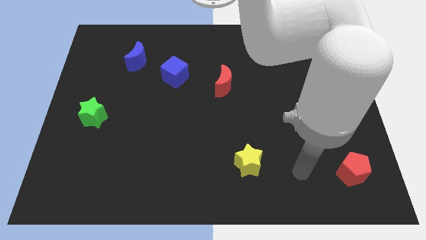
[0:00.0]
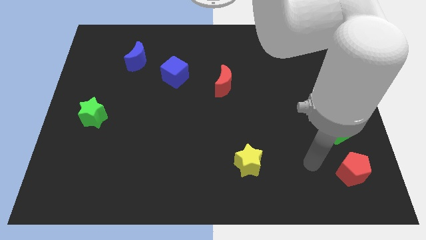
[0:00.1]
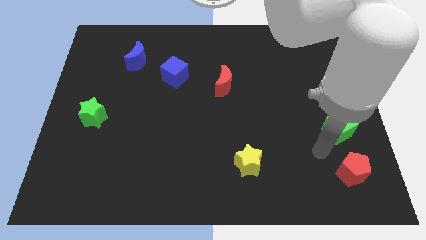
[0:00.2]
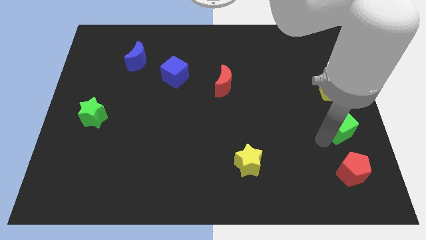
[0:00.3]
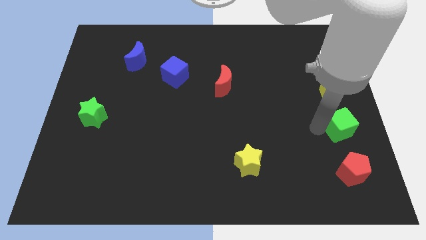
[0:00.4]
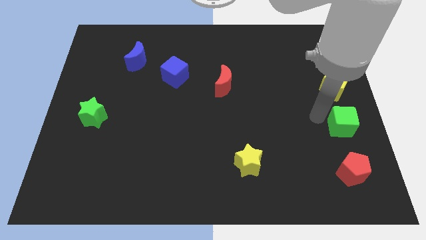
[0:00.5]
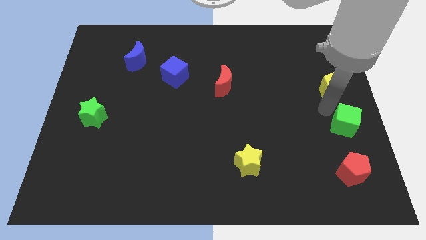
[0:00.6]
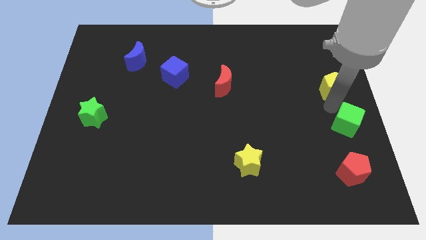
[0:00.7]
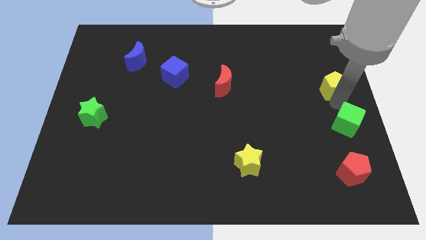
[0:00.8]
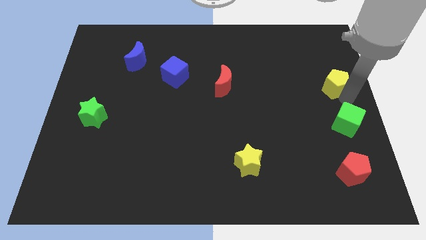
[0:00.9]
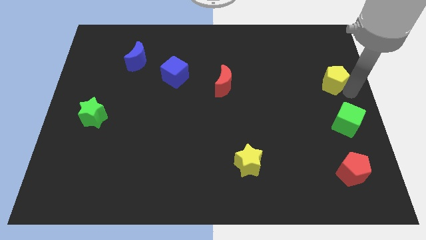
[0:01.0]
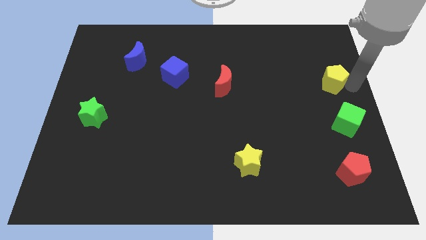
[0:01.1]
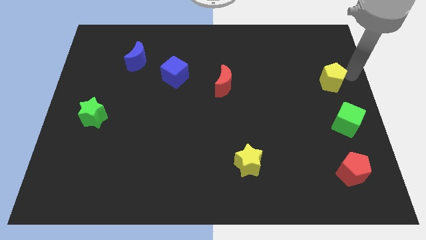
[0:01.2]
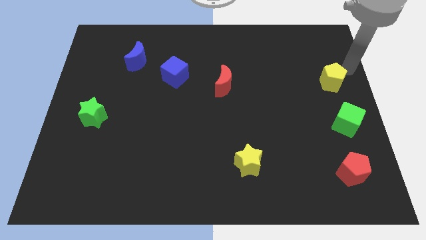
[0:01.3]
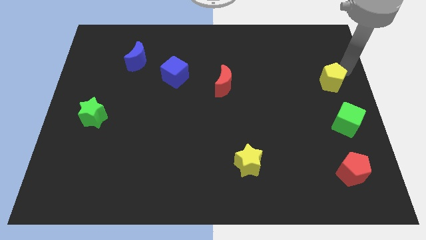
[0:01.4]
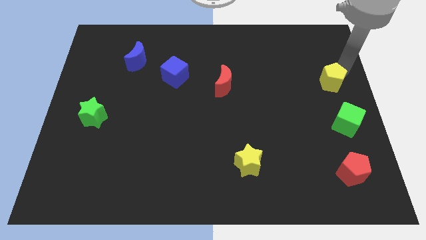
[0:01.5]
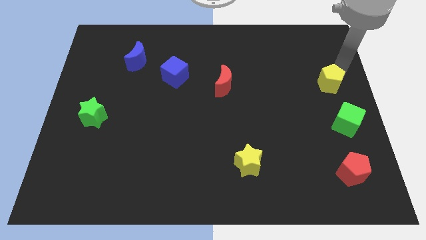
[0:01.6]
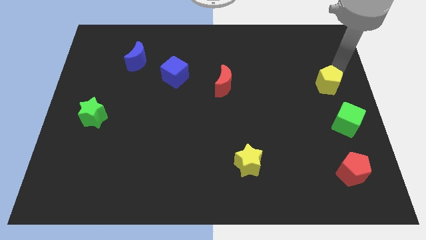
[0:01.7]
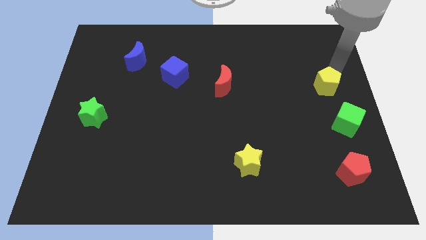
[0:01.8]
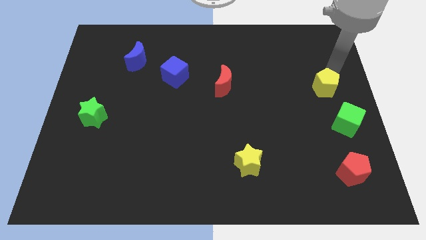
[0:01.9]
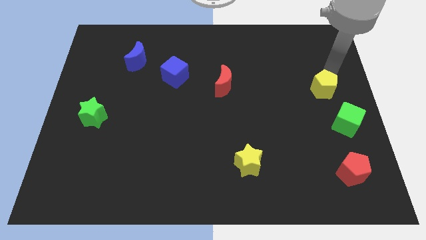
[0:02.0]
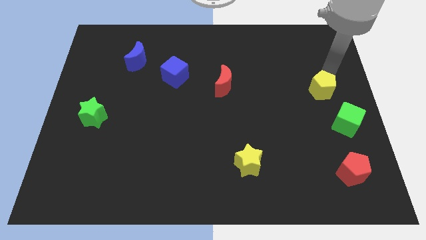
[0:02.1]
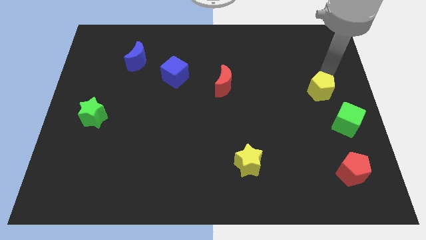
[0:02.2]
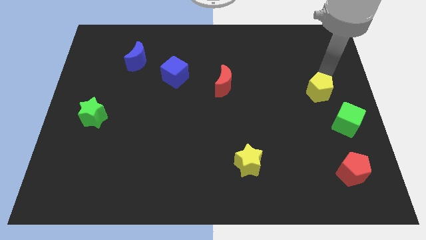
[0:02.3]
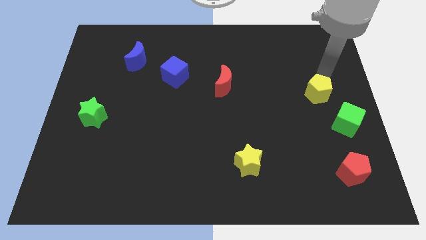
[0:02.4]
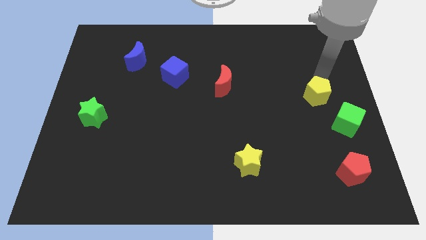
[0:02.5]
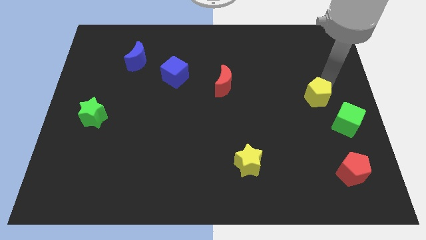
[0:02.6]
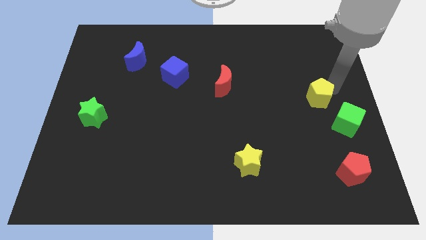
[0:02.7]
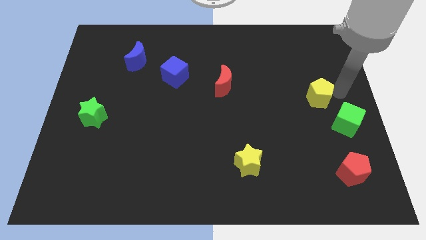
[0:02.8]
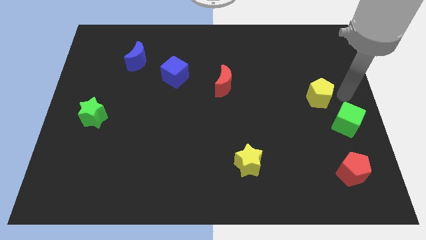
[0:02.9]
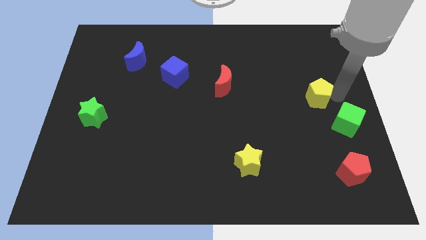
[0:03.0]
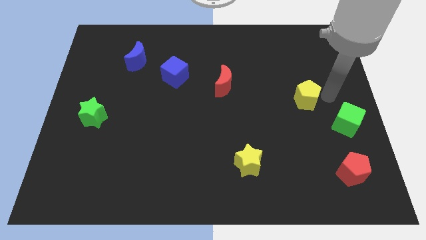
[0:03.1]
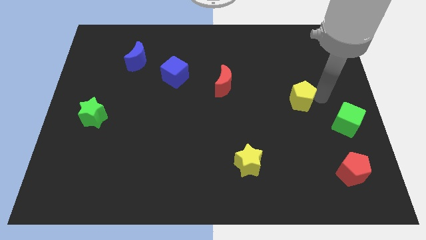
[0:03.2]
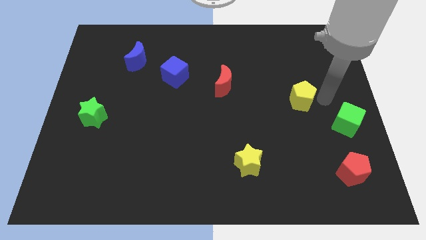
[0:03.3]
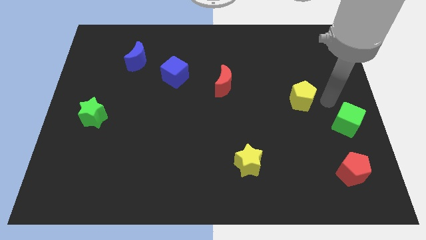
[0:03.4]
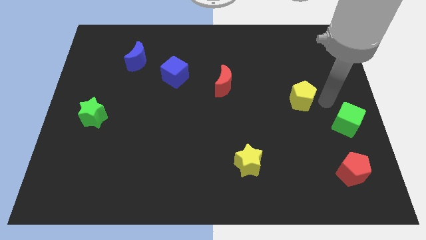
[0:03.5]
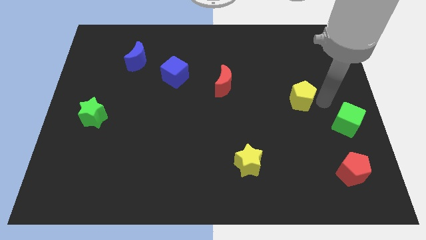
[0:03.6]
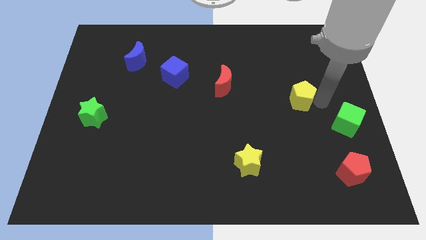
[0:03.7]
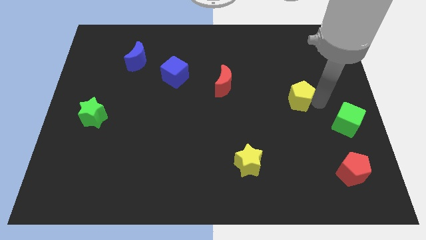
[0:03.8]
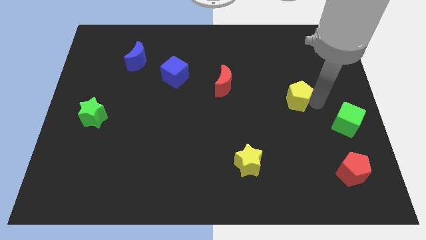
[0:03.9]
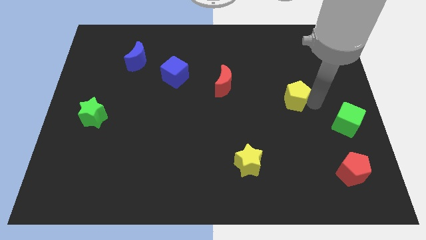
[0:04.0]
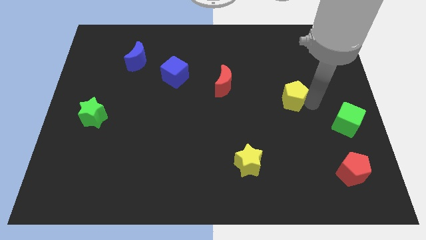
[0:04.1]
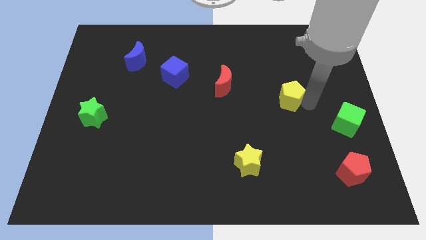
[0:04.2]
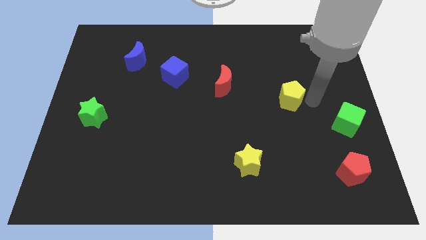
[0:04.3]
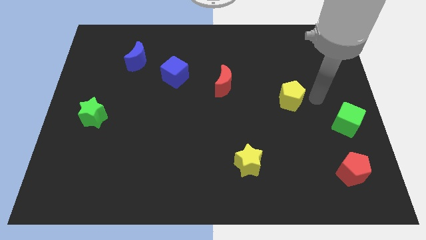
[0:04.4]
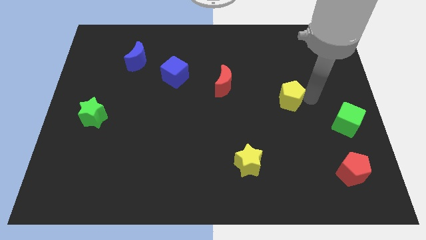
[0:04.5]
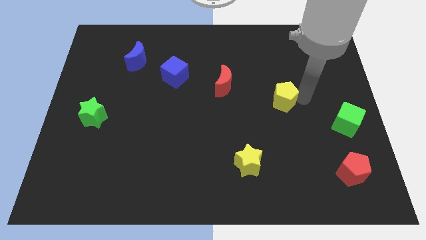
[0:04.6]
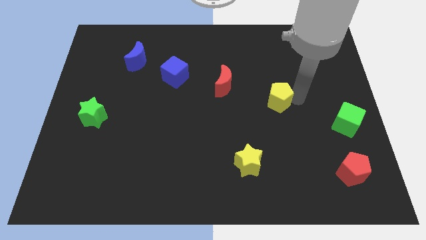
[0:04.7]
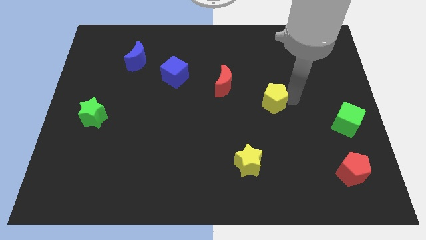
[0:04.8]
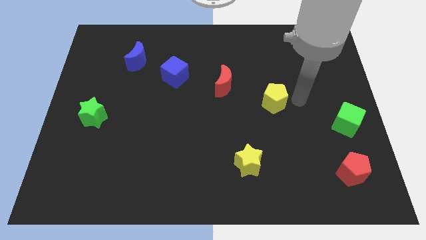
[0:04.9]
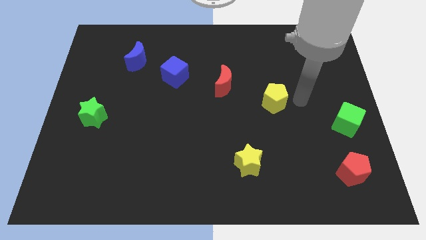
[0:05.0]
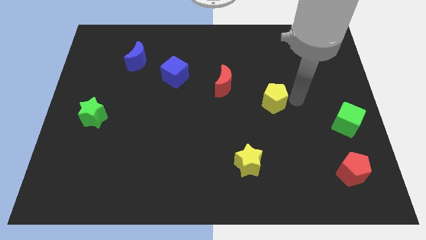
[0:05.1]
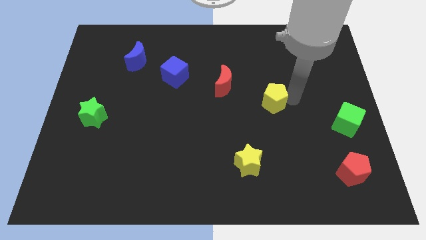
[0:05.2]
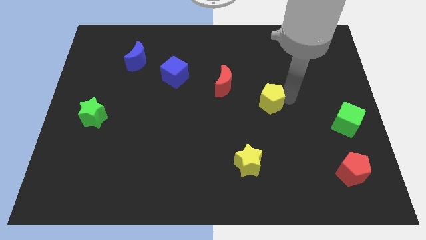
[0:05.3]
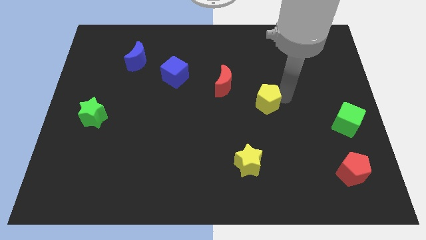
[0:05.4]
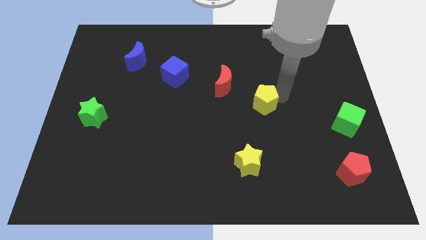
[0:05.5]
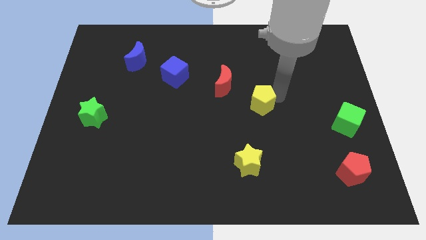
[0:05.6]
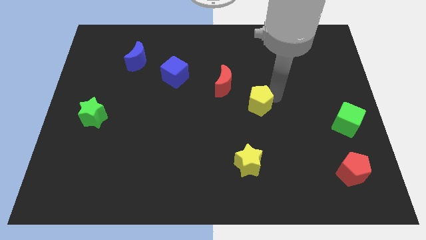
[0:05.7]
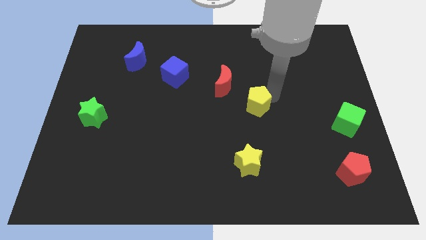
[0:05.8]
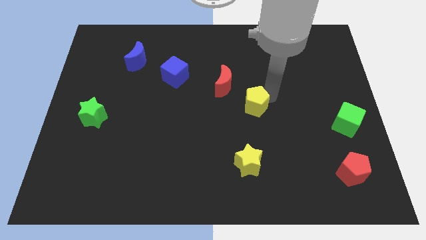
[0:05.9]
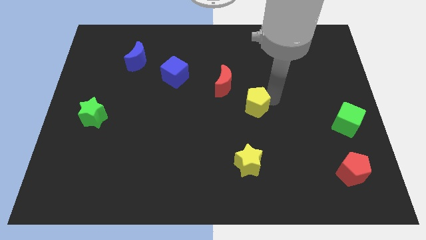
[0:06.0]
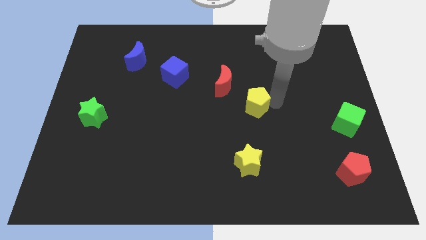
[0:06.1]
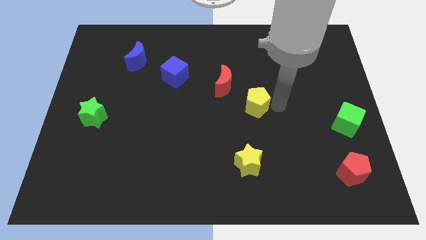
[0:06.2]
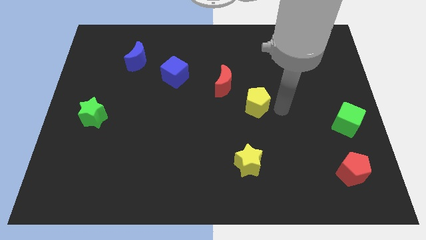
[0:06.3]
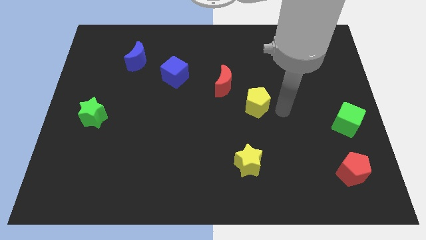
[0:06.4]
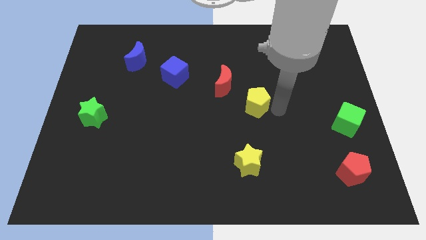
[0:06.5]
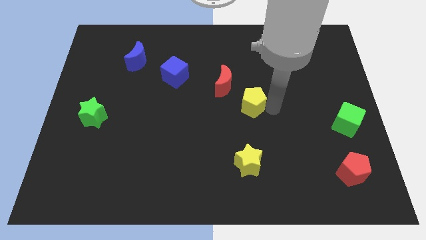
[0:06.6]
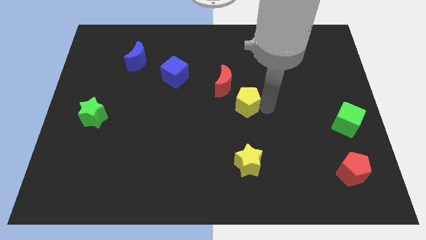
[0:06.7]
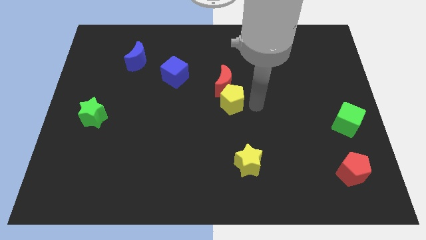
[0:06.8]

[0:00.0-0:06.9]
slide the yellow pentagon to the bottom left of the red moon

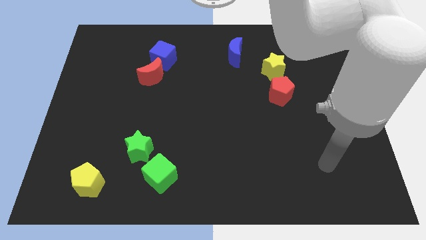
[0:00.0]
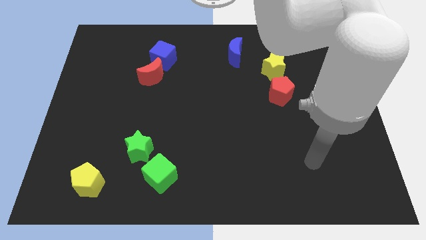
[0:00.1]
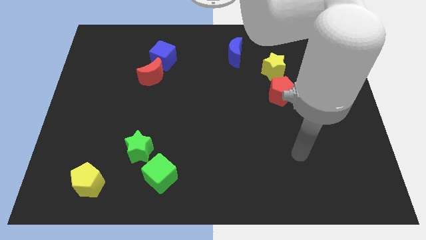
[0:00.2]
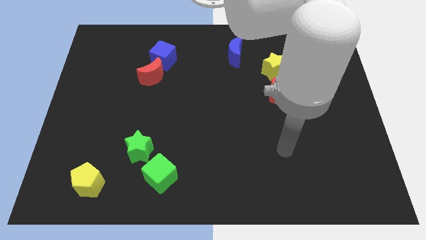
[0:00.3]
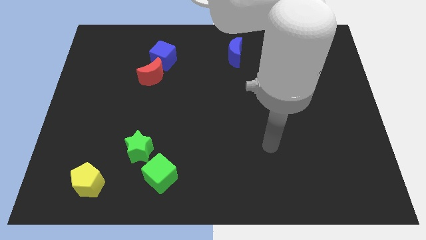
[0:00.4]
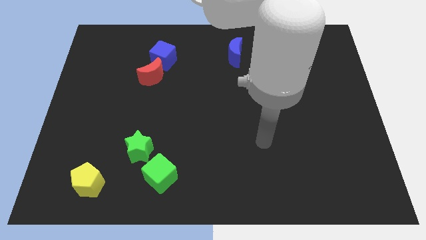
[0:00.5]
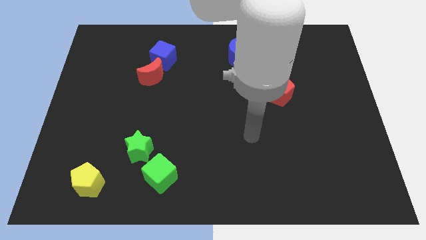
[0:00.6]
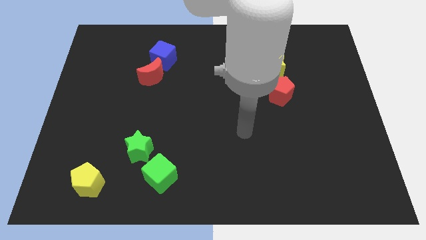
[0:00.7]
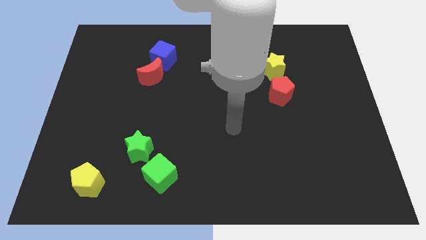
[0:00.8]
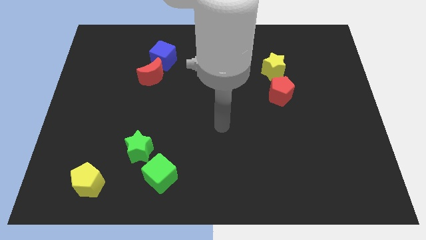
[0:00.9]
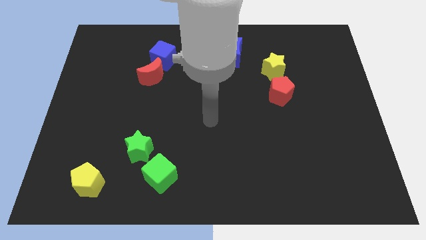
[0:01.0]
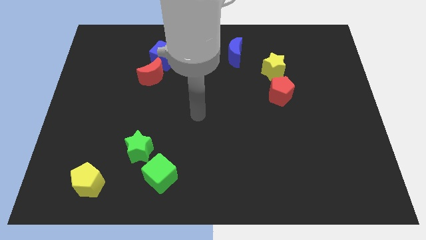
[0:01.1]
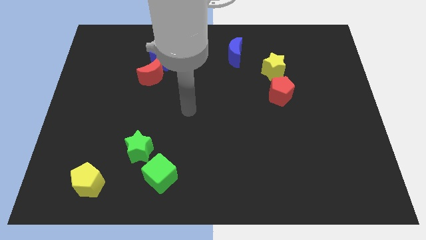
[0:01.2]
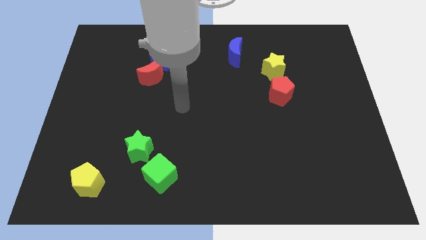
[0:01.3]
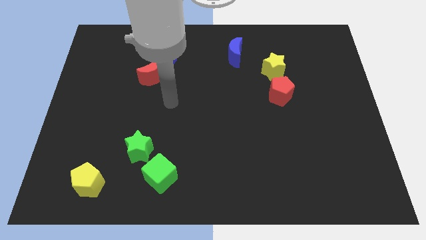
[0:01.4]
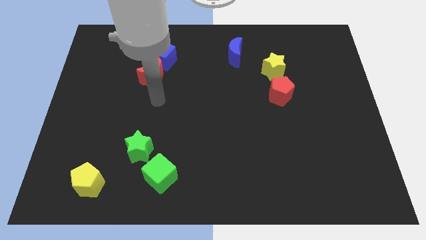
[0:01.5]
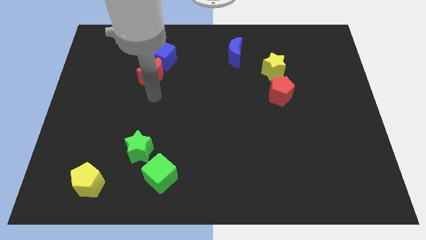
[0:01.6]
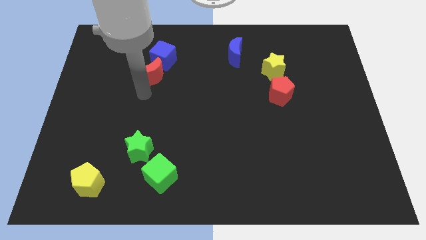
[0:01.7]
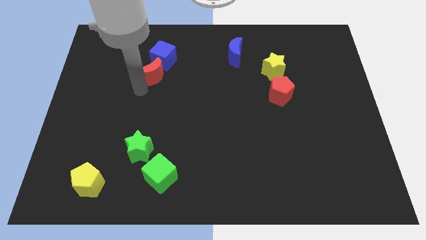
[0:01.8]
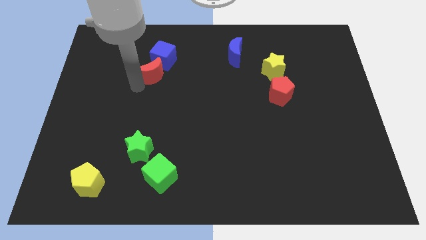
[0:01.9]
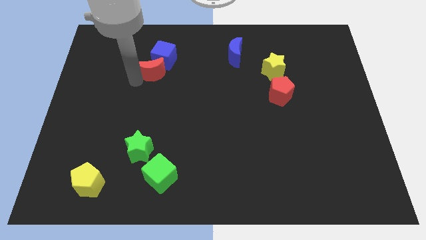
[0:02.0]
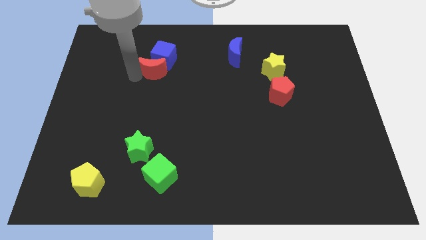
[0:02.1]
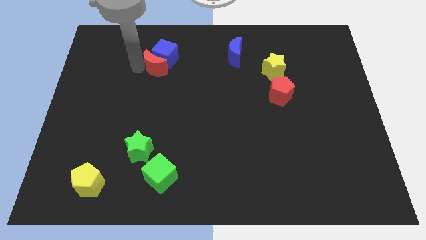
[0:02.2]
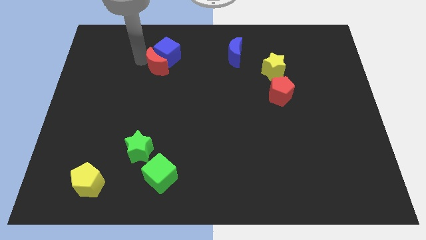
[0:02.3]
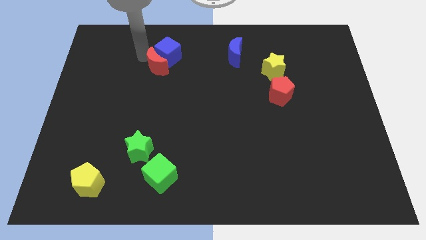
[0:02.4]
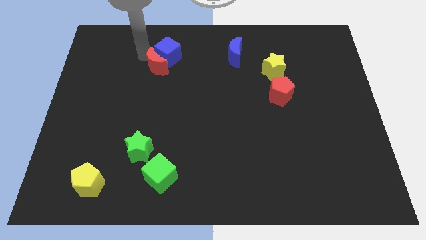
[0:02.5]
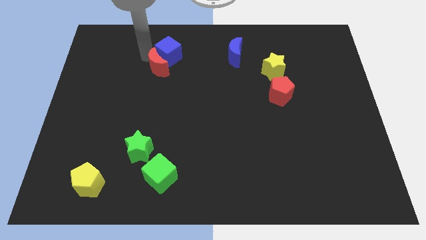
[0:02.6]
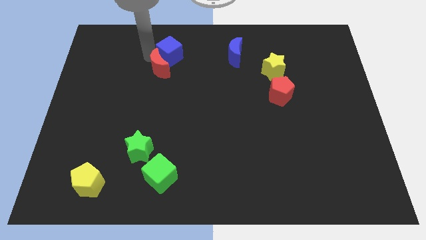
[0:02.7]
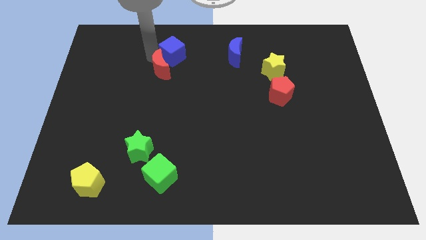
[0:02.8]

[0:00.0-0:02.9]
move the blue cube to the left side of the blue moon
